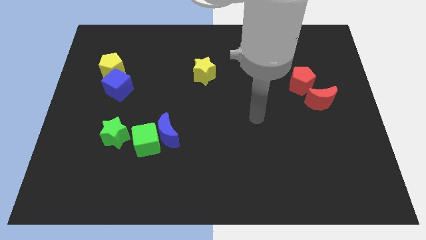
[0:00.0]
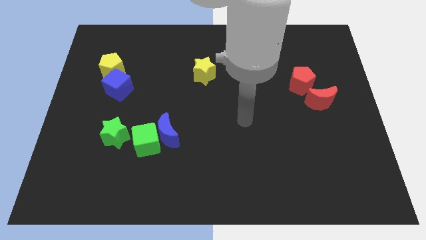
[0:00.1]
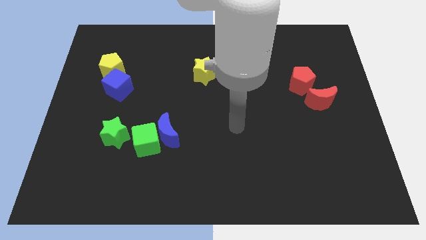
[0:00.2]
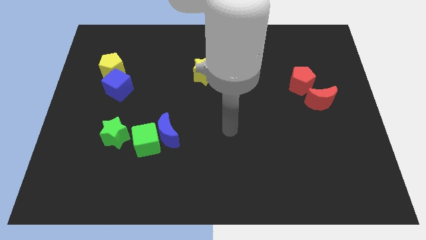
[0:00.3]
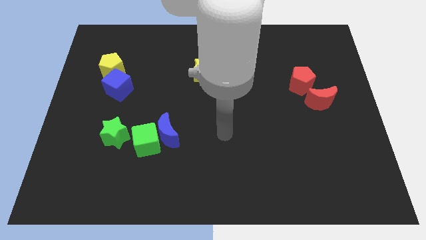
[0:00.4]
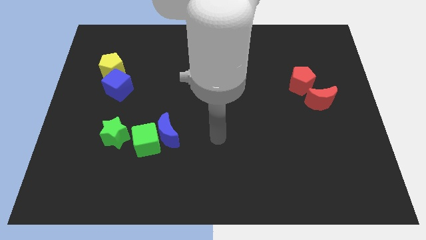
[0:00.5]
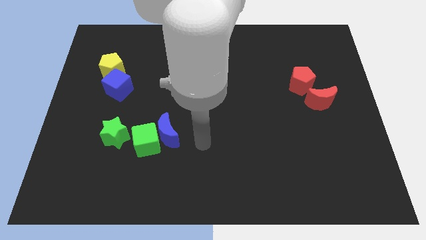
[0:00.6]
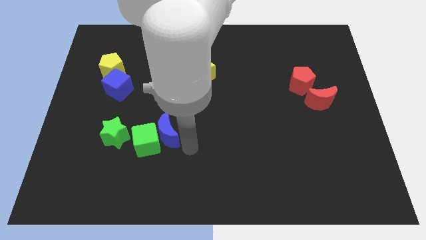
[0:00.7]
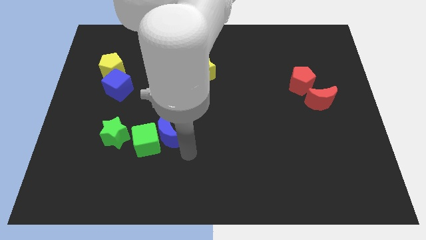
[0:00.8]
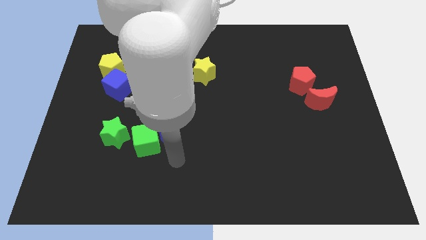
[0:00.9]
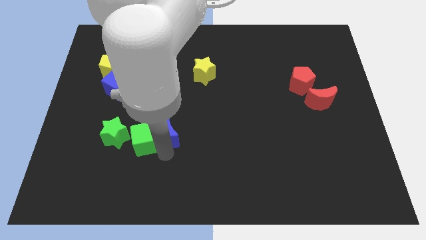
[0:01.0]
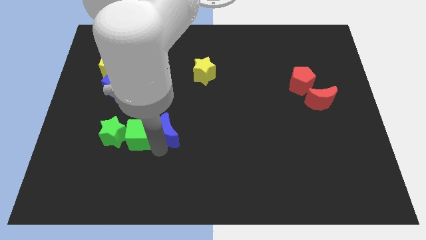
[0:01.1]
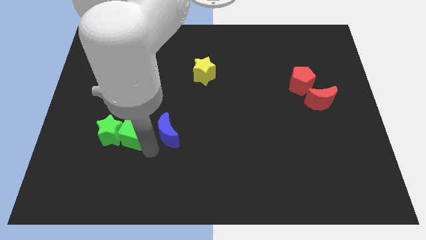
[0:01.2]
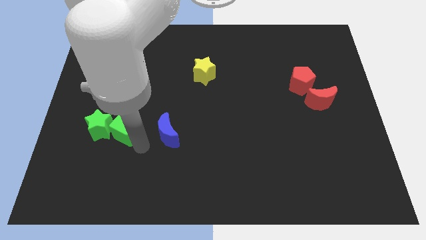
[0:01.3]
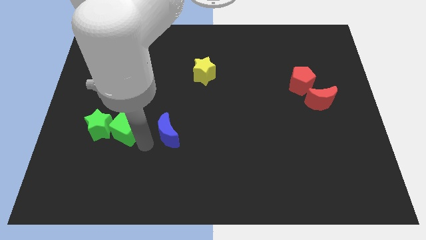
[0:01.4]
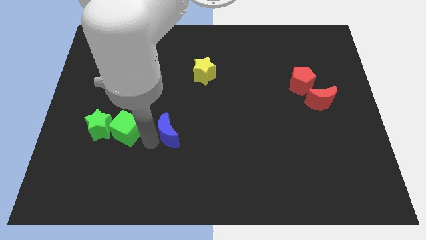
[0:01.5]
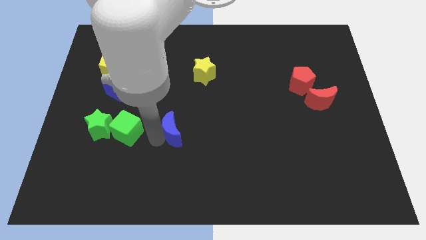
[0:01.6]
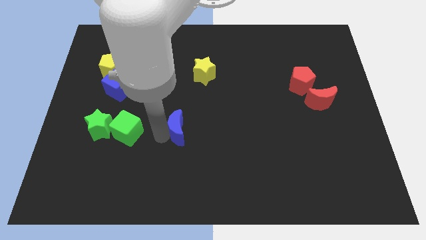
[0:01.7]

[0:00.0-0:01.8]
move the blue moon away from the green cube

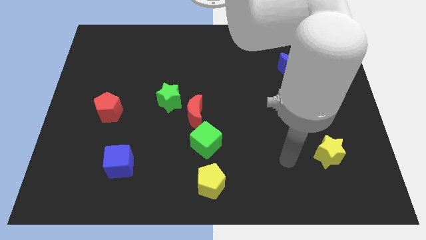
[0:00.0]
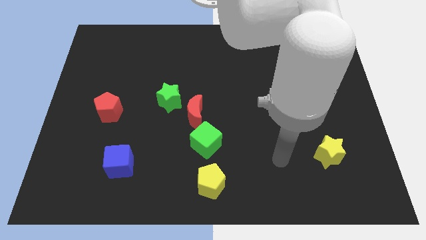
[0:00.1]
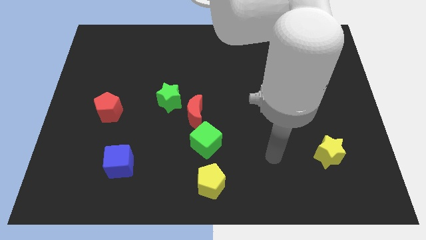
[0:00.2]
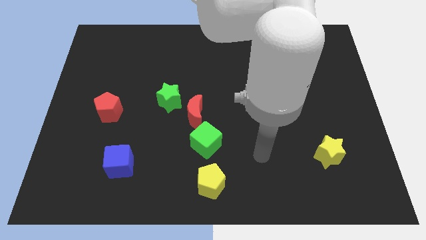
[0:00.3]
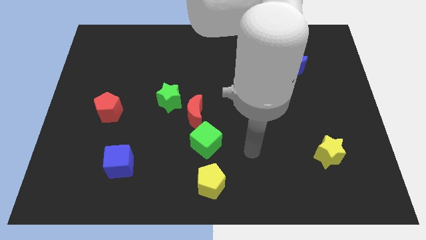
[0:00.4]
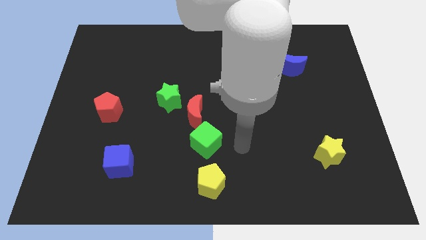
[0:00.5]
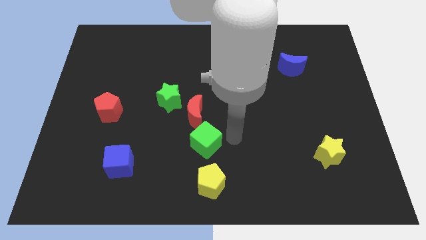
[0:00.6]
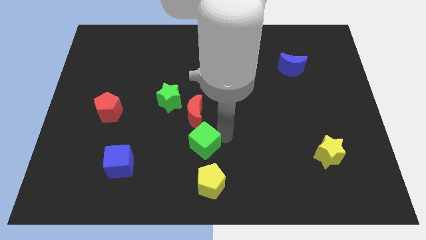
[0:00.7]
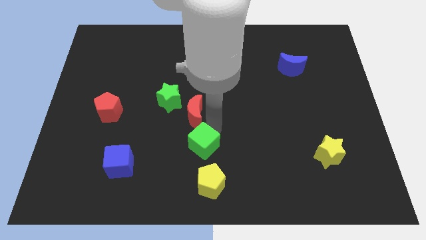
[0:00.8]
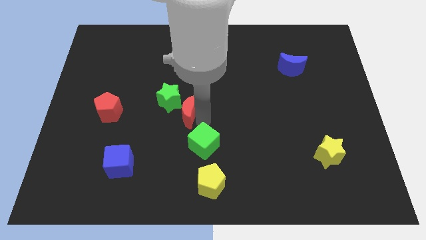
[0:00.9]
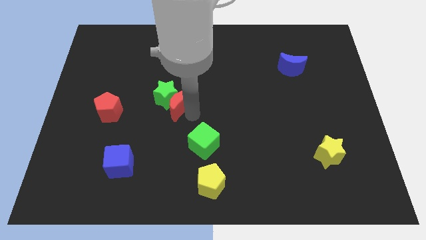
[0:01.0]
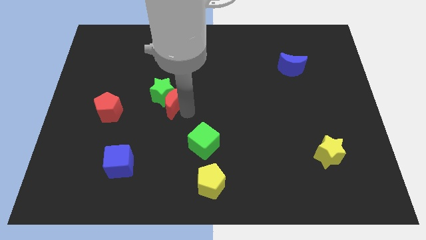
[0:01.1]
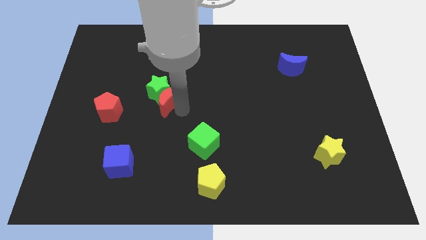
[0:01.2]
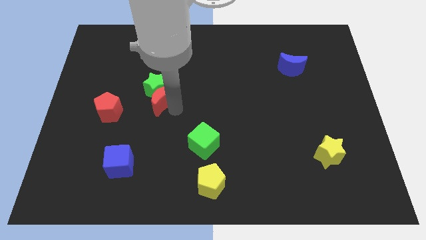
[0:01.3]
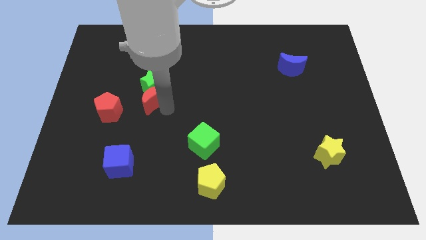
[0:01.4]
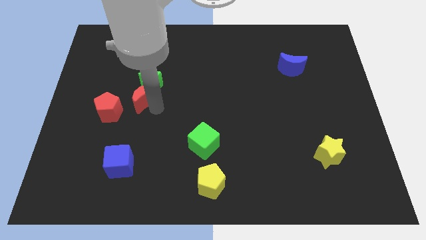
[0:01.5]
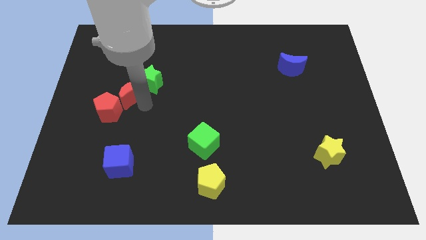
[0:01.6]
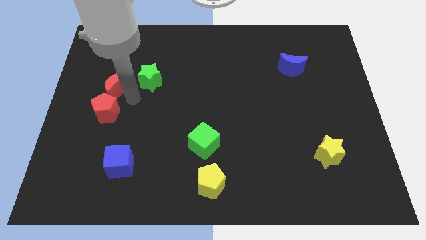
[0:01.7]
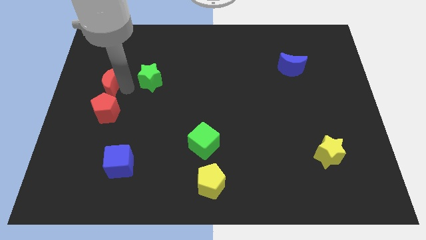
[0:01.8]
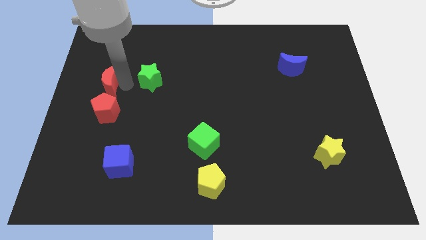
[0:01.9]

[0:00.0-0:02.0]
pull the green star apart from the red moon

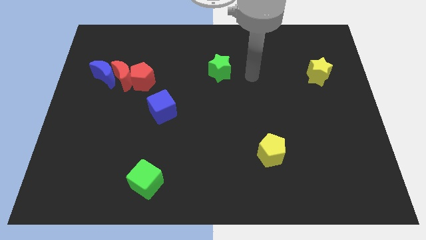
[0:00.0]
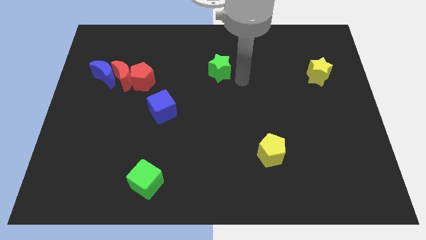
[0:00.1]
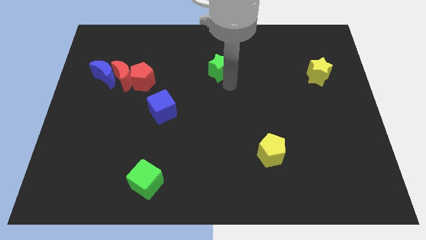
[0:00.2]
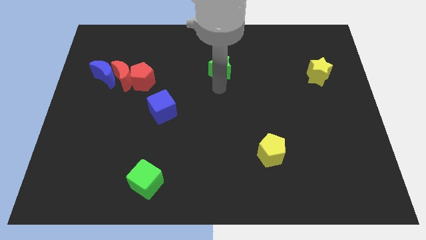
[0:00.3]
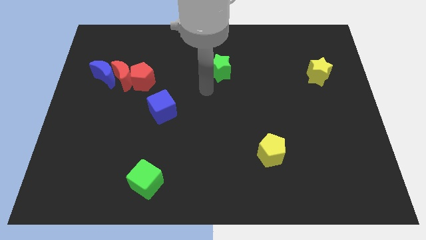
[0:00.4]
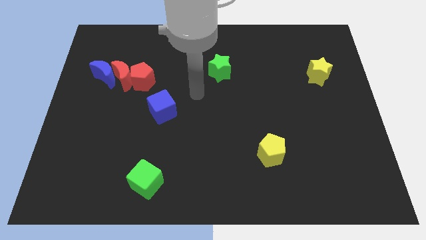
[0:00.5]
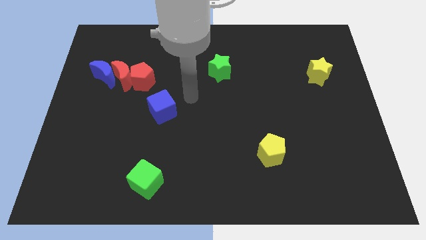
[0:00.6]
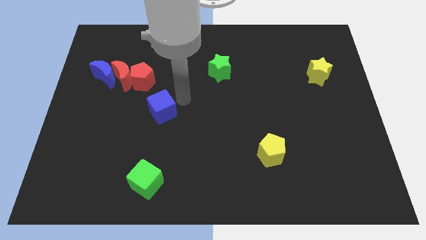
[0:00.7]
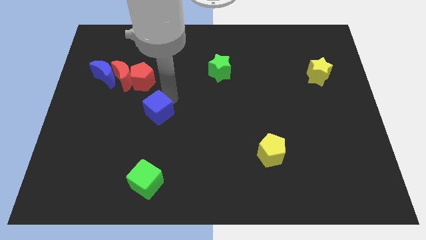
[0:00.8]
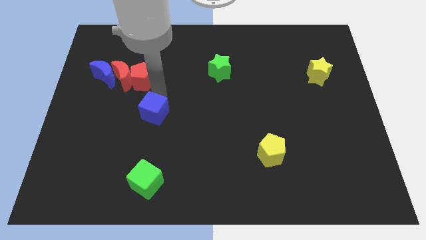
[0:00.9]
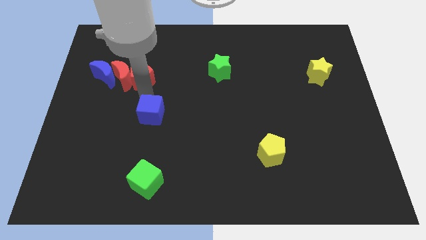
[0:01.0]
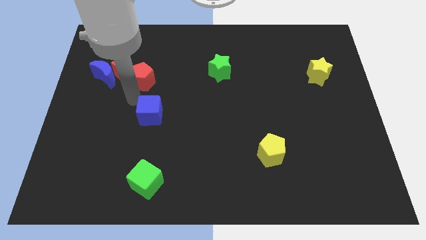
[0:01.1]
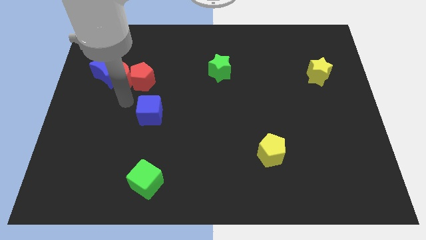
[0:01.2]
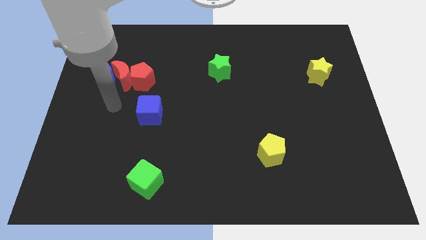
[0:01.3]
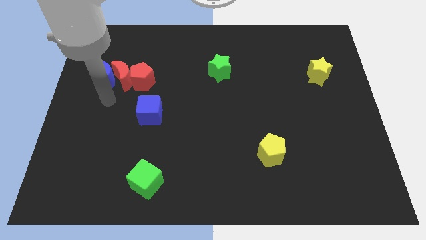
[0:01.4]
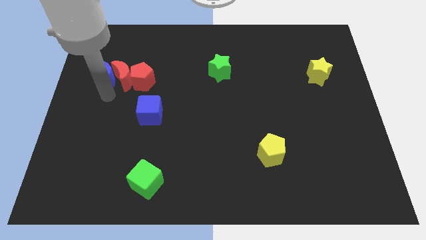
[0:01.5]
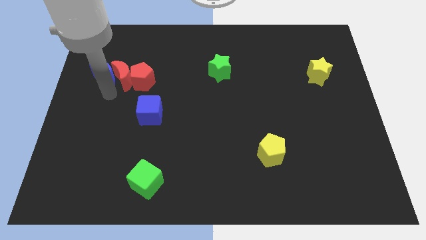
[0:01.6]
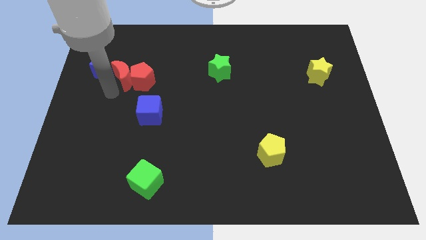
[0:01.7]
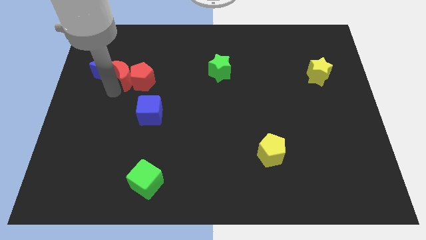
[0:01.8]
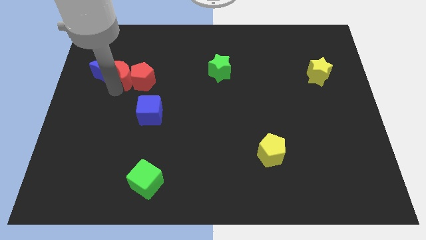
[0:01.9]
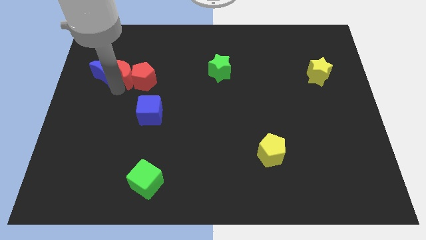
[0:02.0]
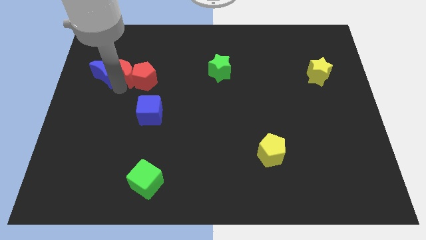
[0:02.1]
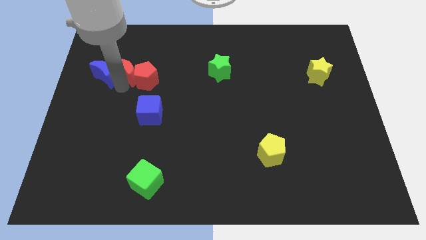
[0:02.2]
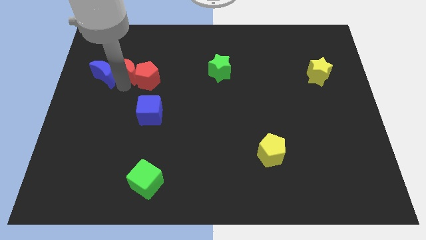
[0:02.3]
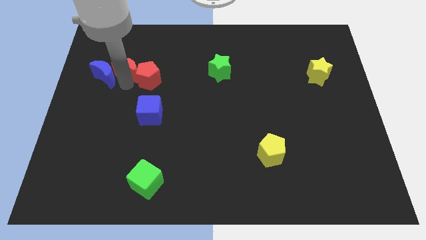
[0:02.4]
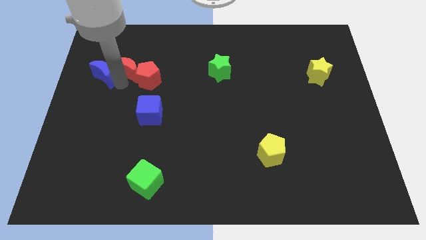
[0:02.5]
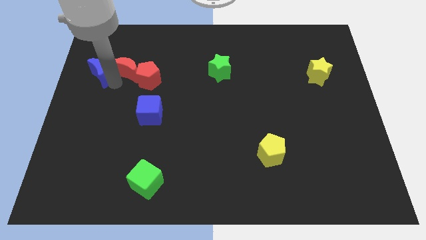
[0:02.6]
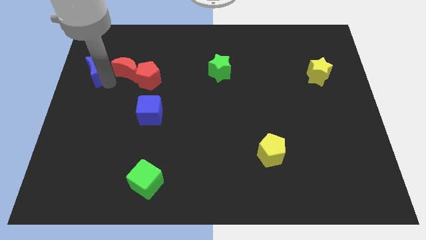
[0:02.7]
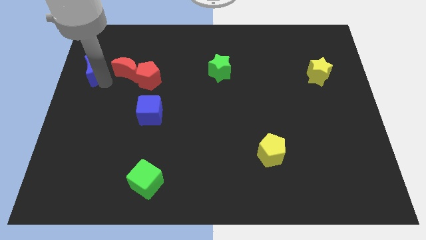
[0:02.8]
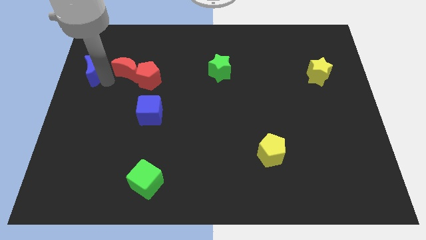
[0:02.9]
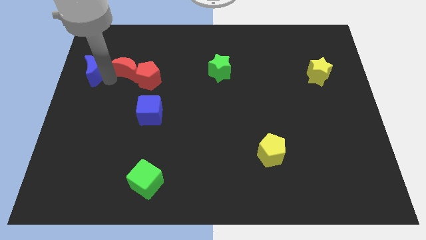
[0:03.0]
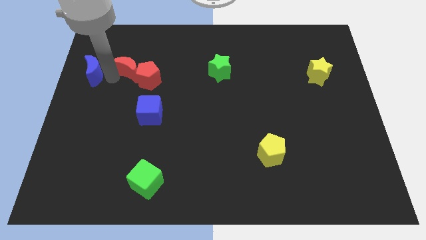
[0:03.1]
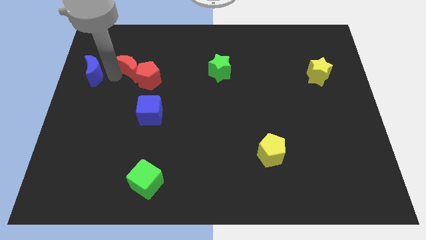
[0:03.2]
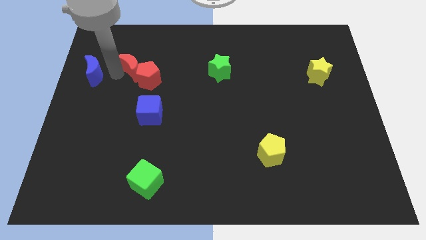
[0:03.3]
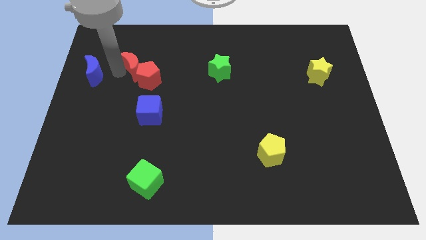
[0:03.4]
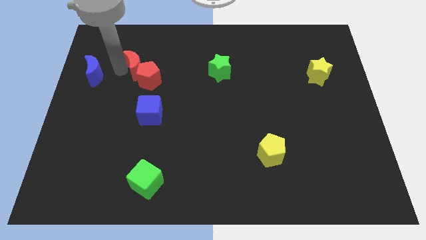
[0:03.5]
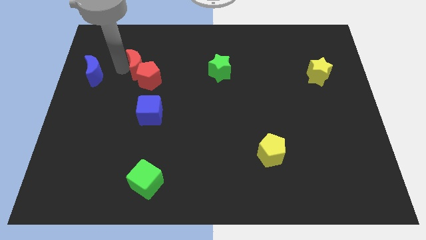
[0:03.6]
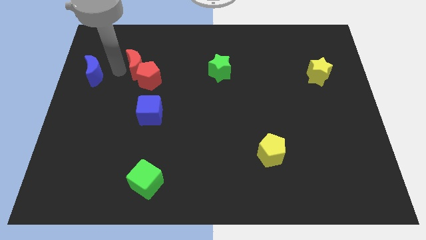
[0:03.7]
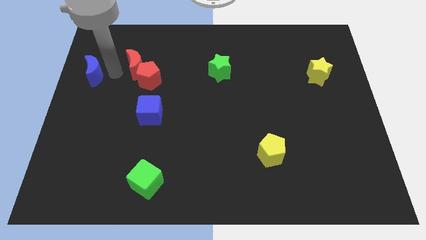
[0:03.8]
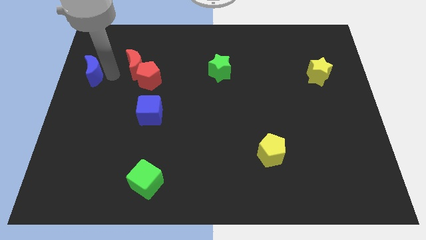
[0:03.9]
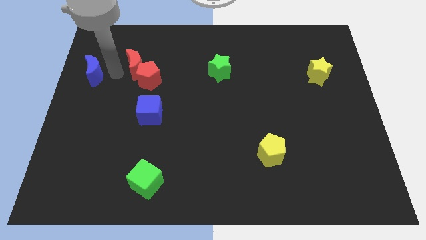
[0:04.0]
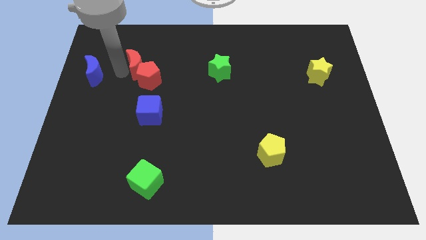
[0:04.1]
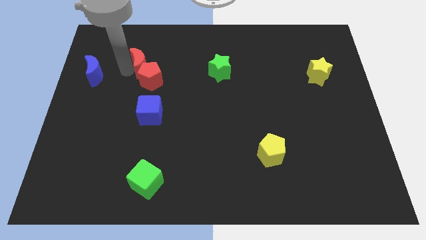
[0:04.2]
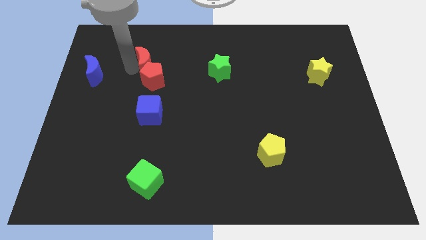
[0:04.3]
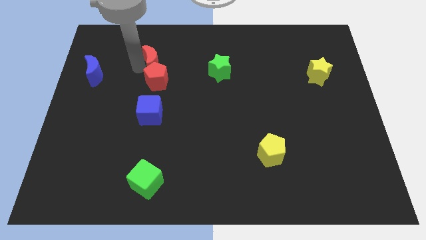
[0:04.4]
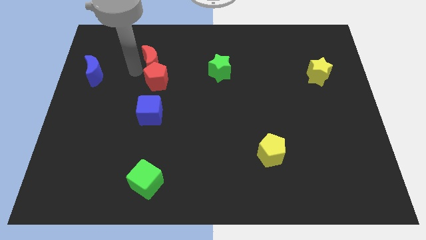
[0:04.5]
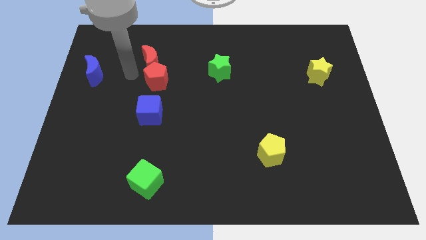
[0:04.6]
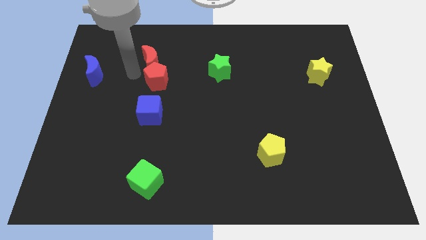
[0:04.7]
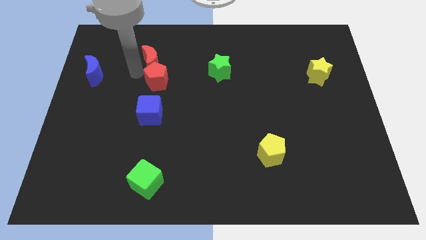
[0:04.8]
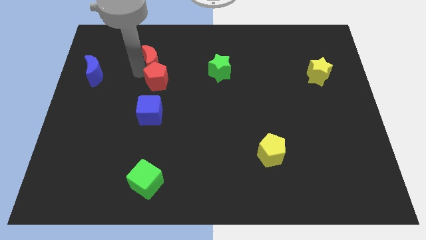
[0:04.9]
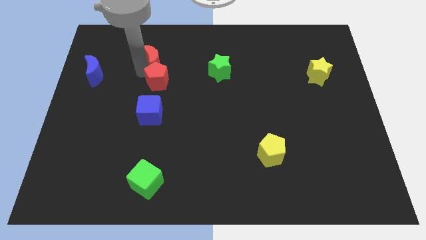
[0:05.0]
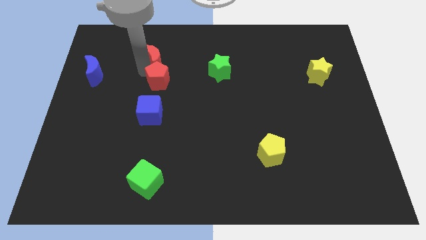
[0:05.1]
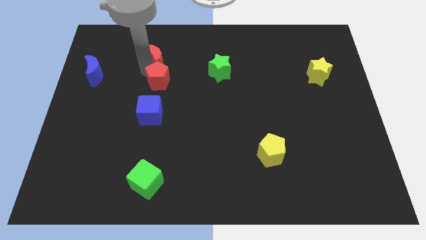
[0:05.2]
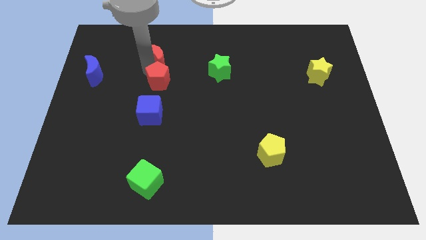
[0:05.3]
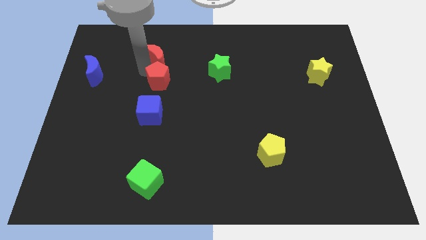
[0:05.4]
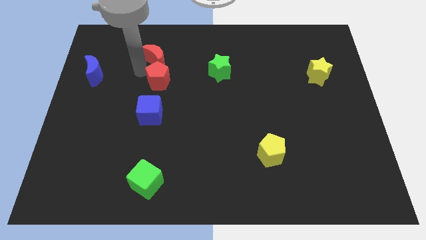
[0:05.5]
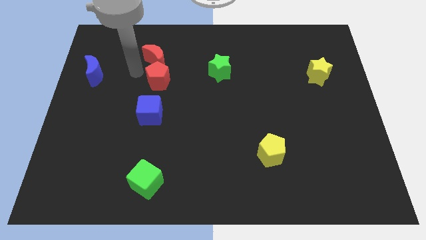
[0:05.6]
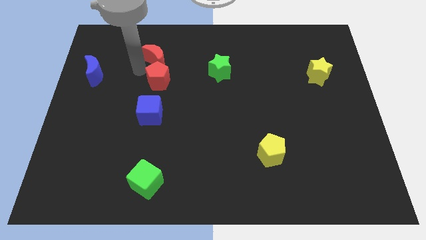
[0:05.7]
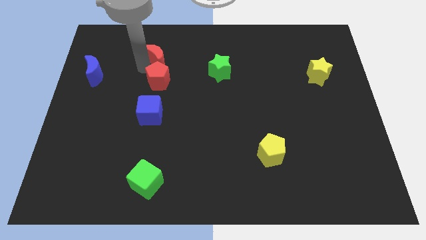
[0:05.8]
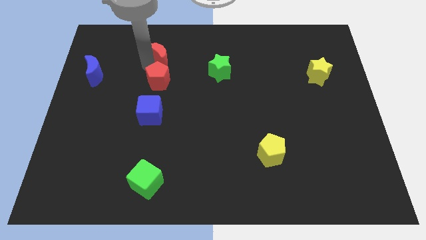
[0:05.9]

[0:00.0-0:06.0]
move the red moon away from the red pentagon and blue moon
